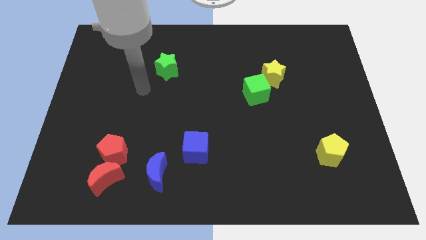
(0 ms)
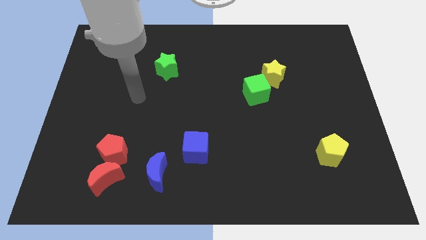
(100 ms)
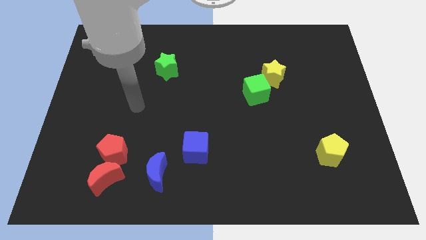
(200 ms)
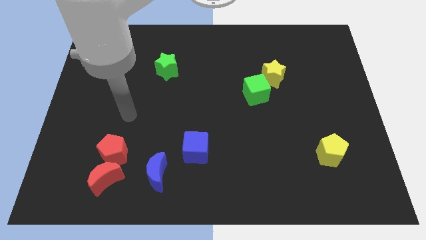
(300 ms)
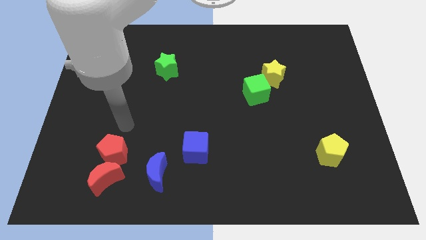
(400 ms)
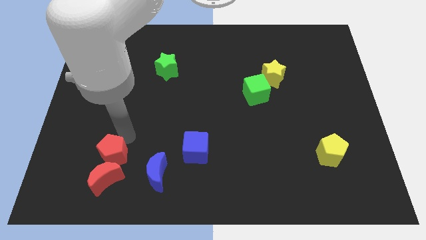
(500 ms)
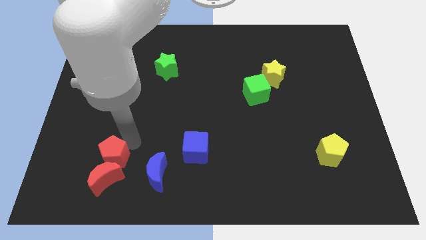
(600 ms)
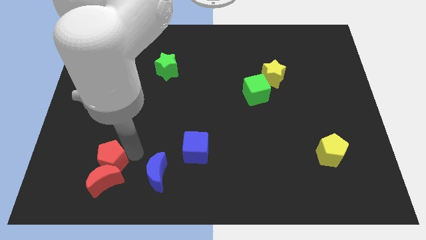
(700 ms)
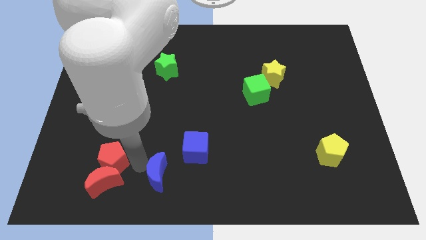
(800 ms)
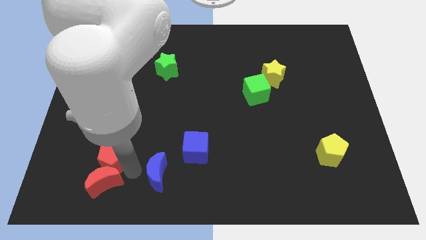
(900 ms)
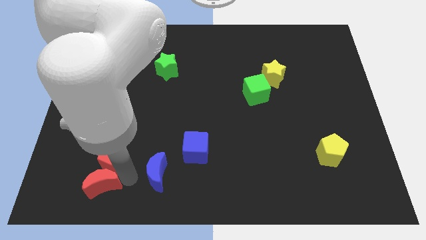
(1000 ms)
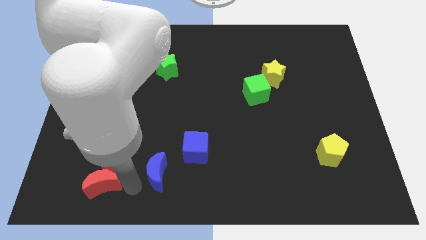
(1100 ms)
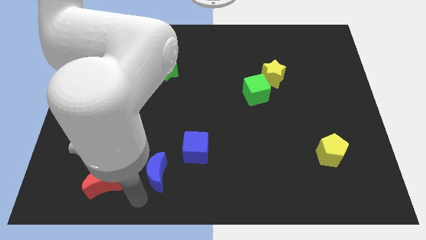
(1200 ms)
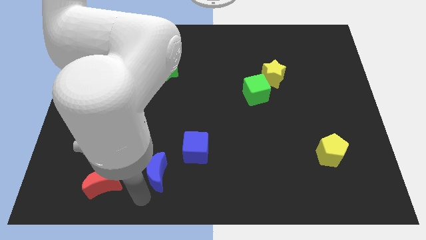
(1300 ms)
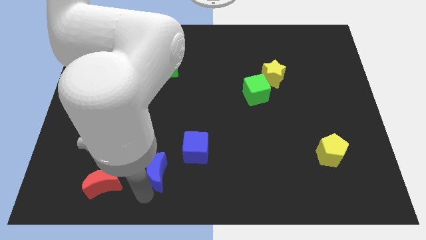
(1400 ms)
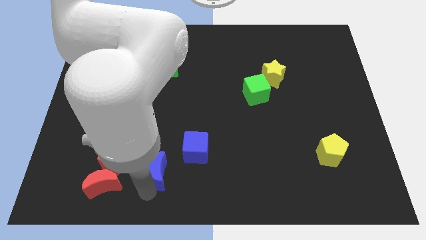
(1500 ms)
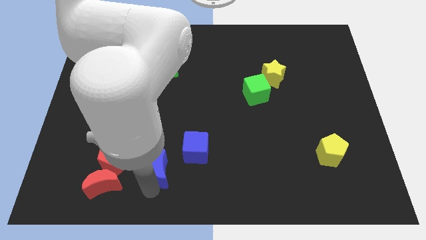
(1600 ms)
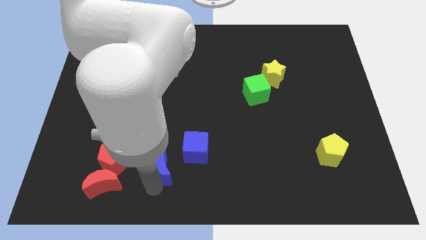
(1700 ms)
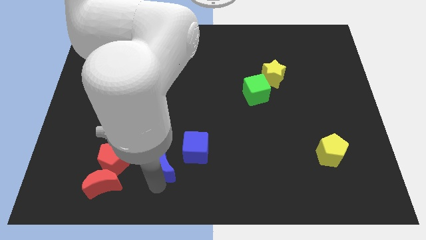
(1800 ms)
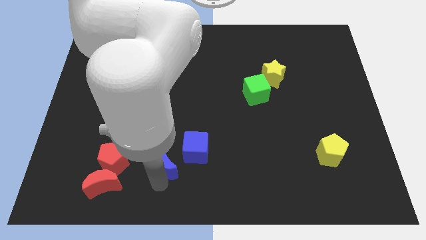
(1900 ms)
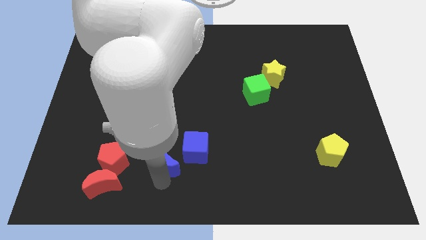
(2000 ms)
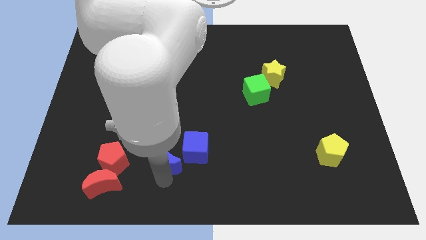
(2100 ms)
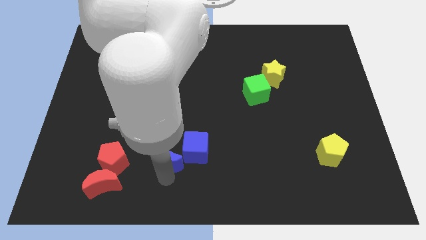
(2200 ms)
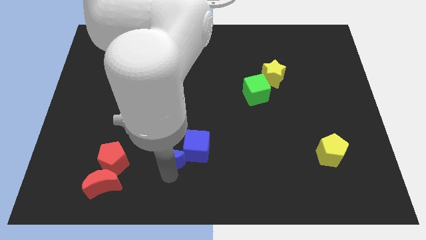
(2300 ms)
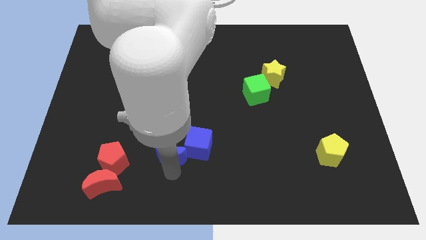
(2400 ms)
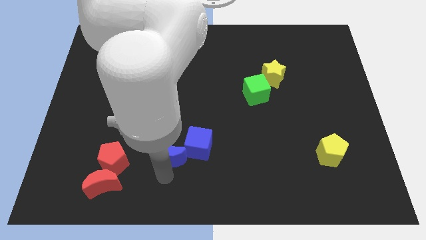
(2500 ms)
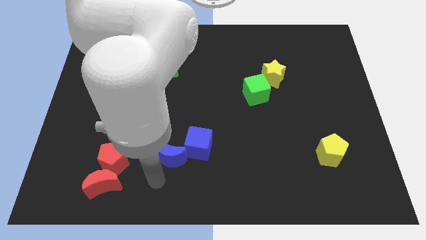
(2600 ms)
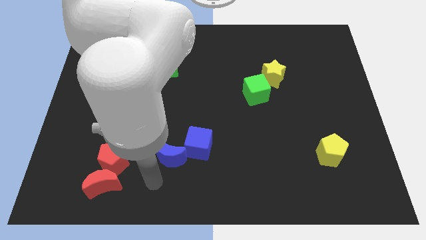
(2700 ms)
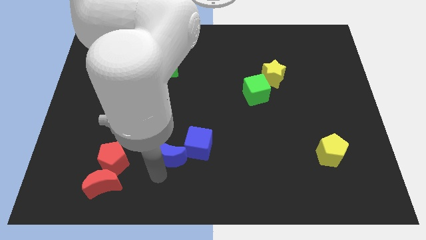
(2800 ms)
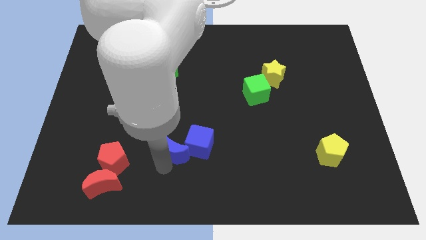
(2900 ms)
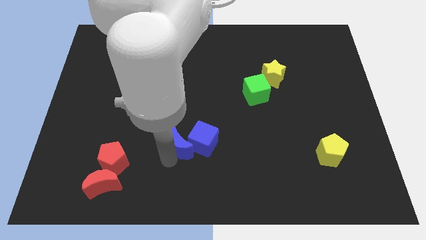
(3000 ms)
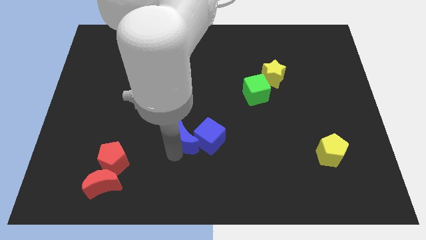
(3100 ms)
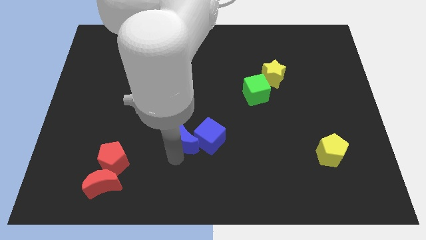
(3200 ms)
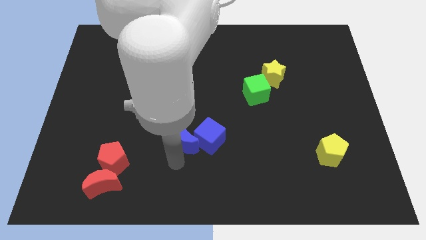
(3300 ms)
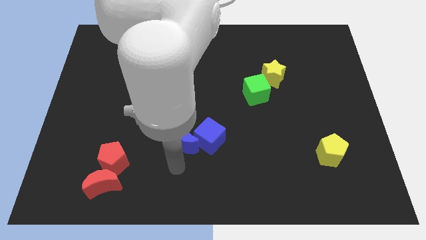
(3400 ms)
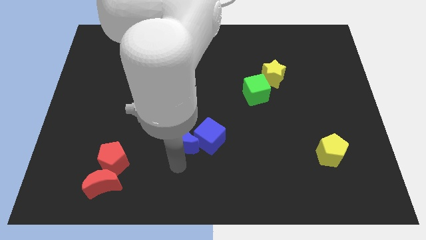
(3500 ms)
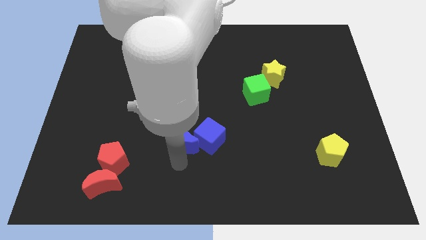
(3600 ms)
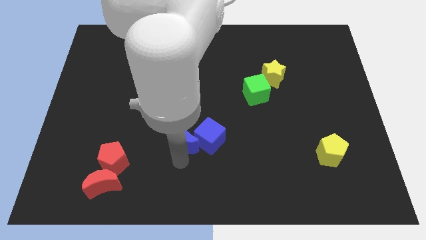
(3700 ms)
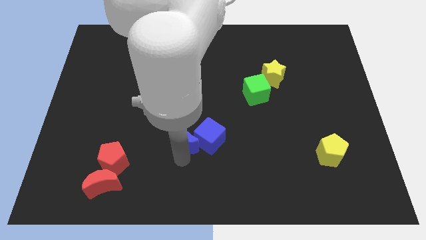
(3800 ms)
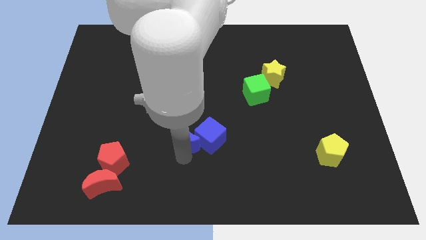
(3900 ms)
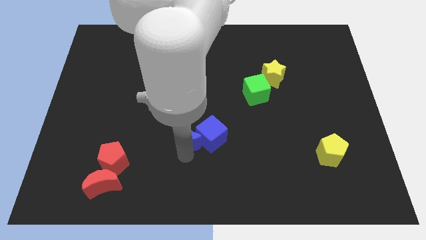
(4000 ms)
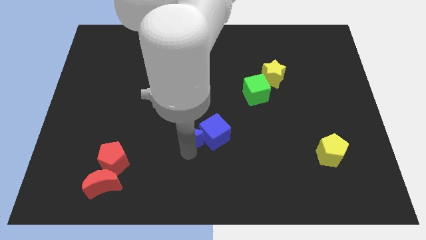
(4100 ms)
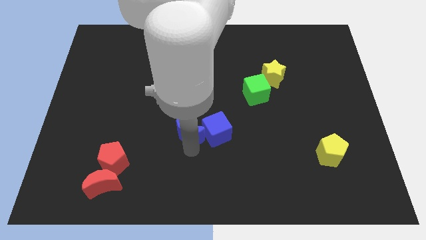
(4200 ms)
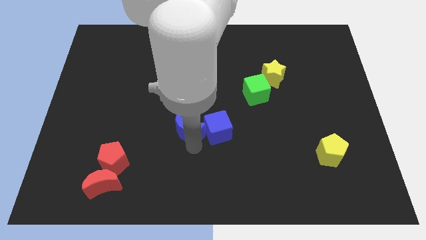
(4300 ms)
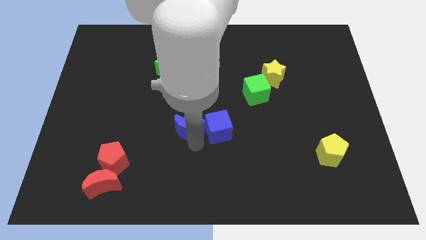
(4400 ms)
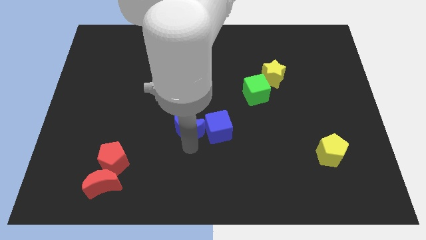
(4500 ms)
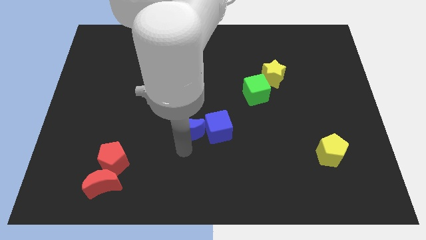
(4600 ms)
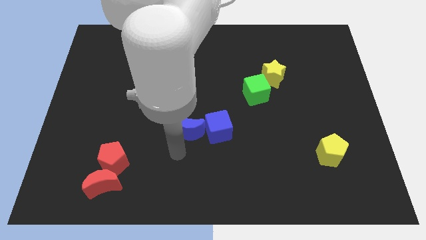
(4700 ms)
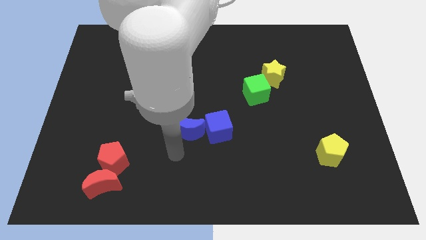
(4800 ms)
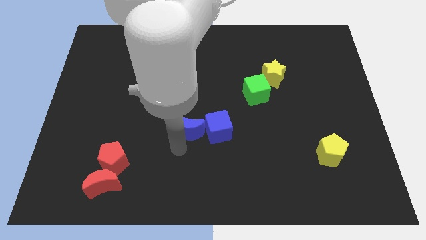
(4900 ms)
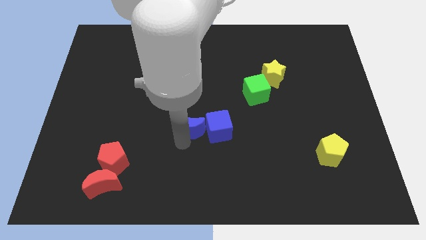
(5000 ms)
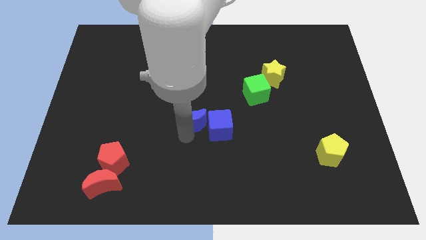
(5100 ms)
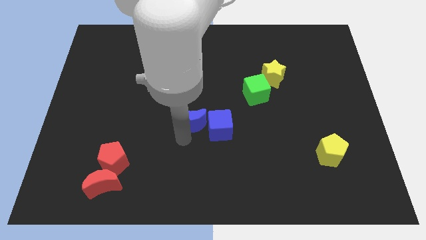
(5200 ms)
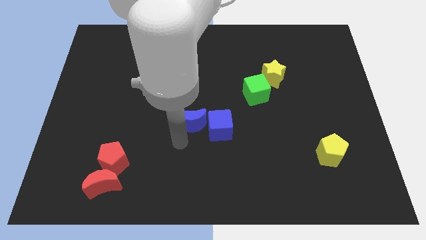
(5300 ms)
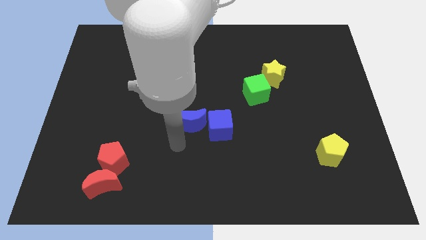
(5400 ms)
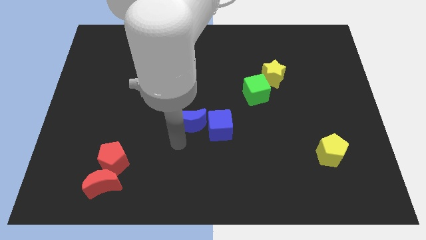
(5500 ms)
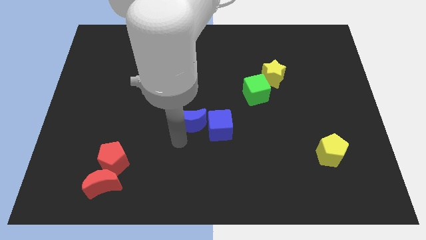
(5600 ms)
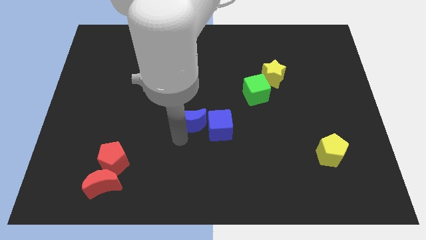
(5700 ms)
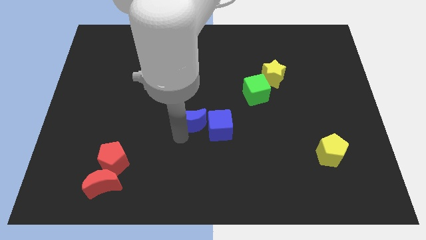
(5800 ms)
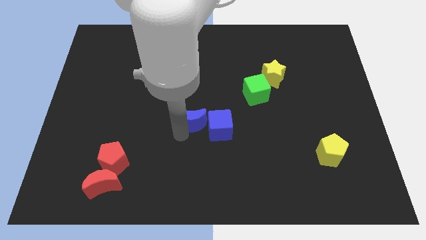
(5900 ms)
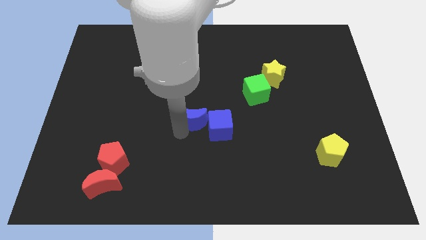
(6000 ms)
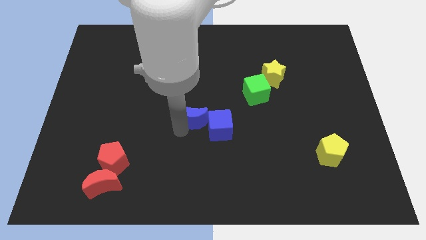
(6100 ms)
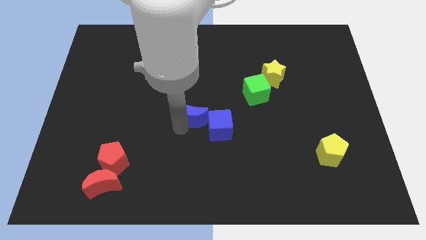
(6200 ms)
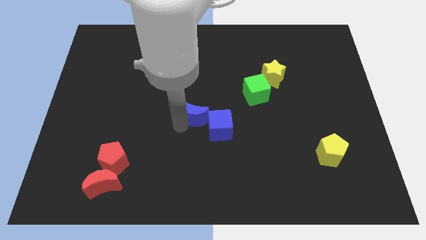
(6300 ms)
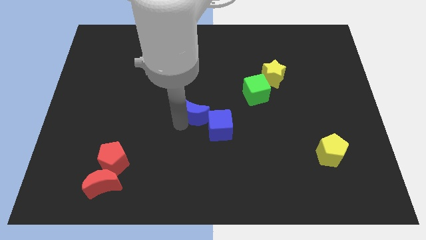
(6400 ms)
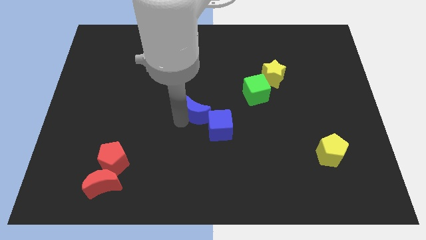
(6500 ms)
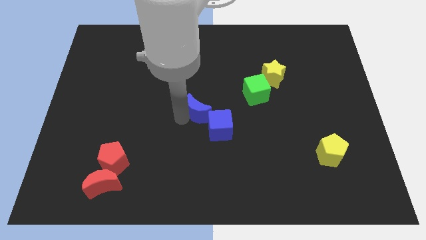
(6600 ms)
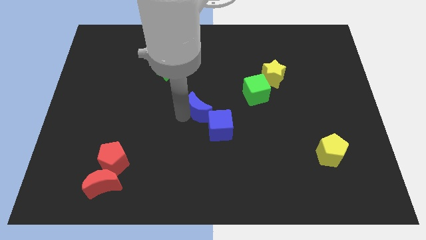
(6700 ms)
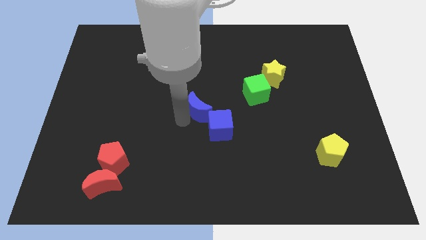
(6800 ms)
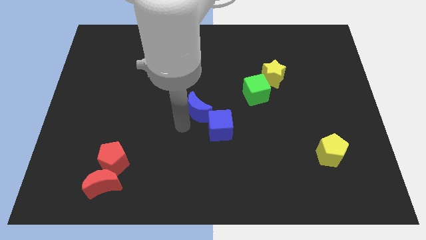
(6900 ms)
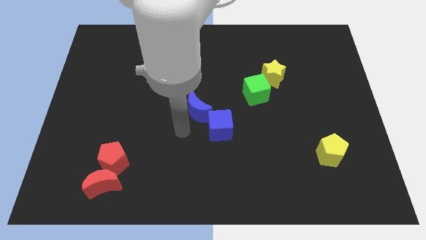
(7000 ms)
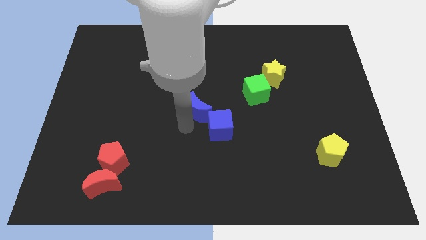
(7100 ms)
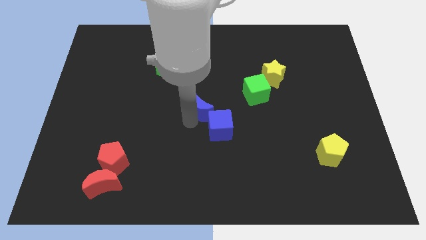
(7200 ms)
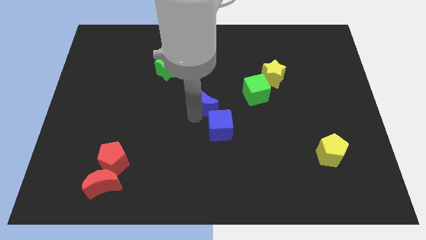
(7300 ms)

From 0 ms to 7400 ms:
put the blue moon left of the green cube
